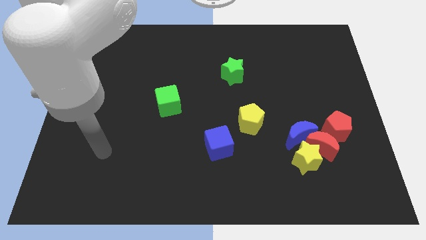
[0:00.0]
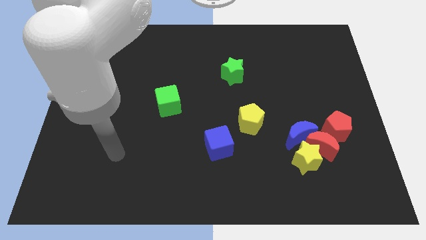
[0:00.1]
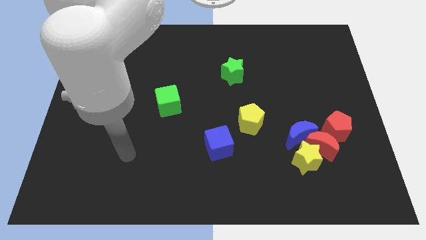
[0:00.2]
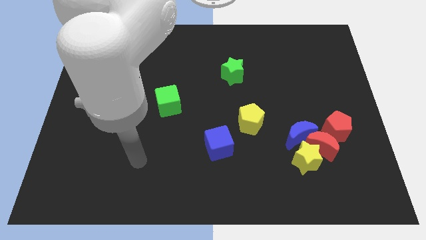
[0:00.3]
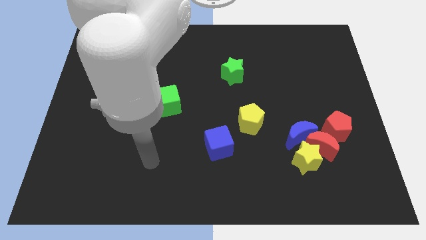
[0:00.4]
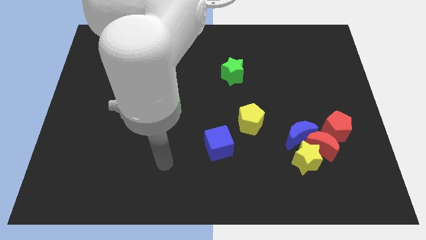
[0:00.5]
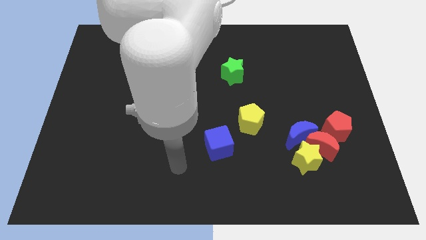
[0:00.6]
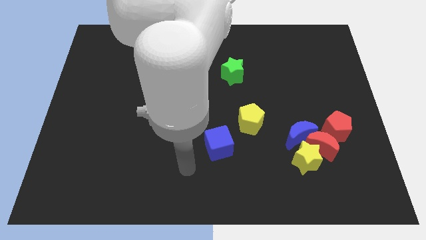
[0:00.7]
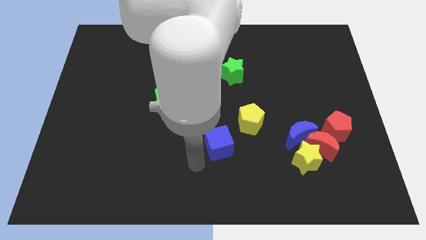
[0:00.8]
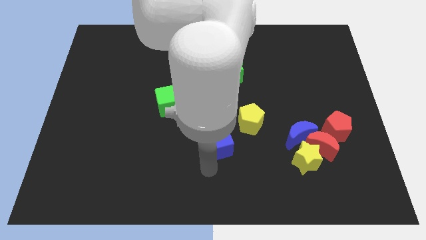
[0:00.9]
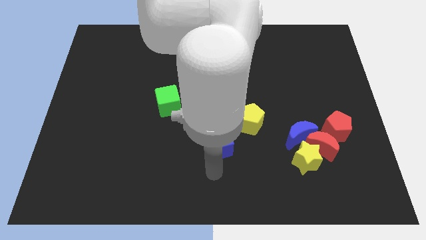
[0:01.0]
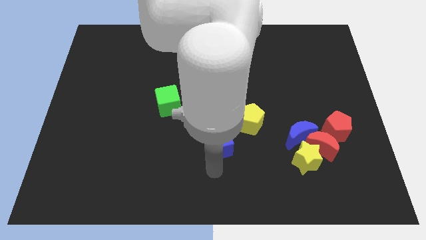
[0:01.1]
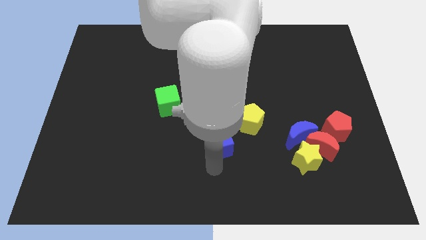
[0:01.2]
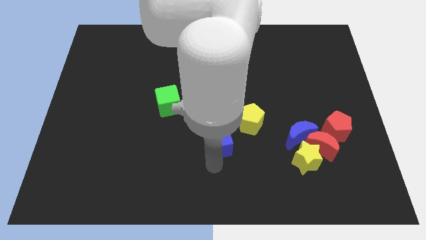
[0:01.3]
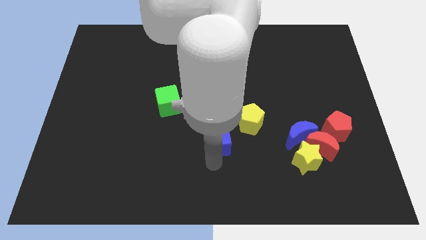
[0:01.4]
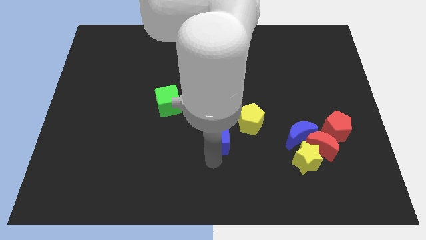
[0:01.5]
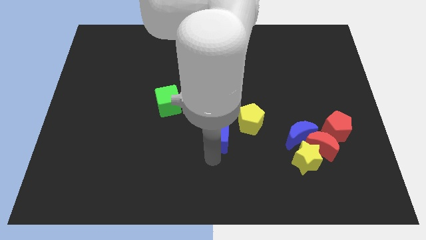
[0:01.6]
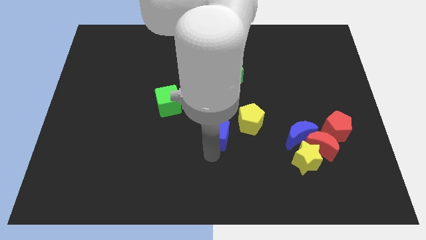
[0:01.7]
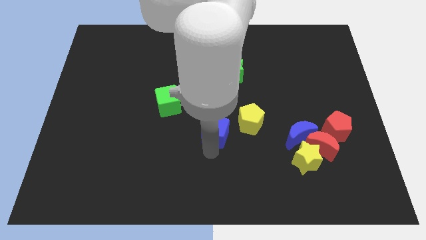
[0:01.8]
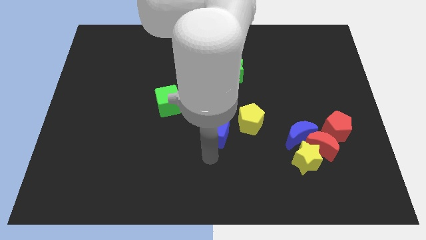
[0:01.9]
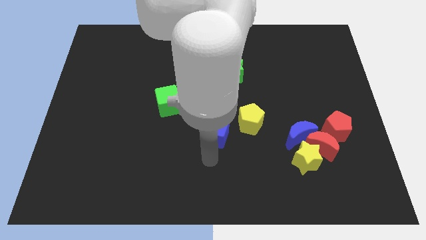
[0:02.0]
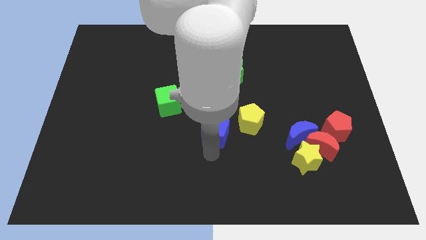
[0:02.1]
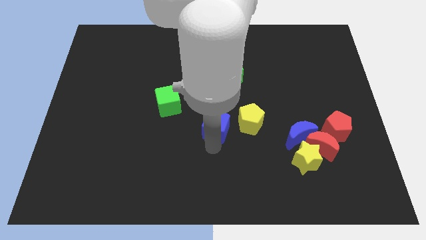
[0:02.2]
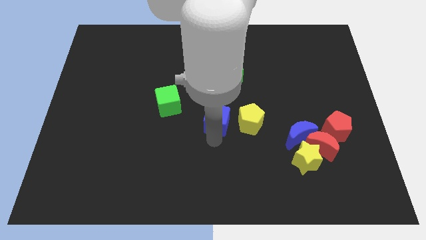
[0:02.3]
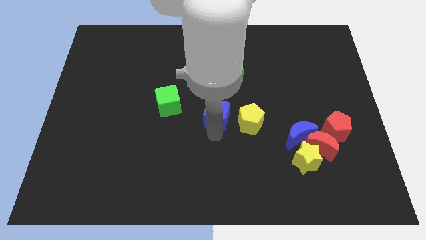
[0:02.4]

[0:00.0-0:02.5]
push the blue cube upwards slightly

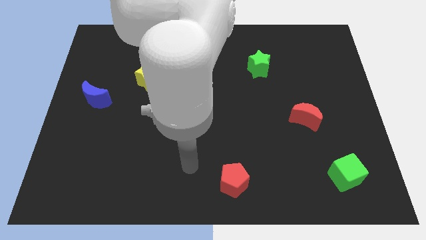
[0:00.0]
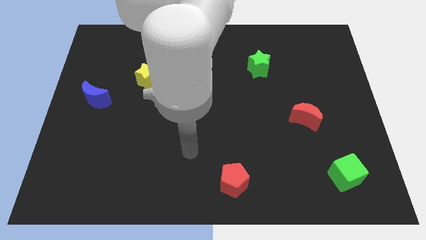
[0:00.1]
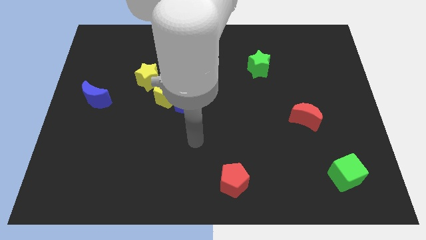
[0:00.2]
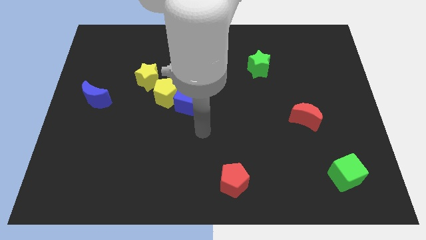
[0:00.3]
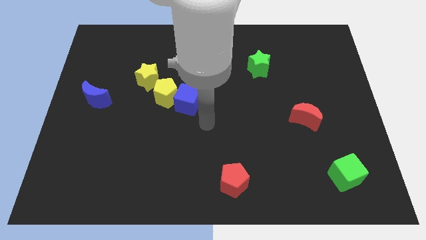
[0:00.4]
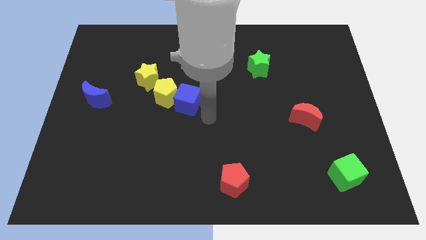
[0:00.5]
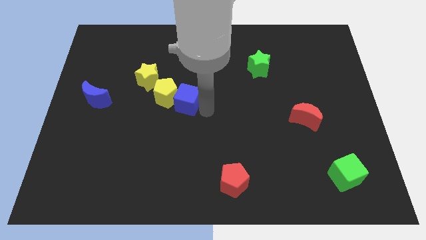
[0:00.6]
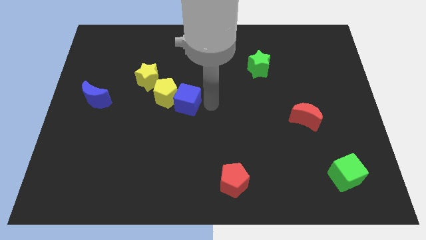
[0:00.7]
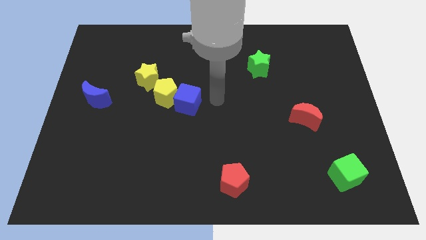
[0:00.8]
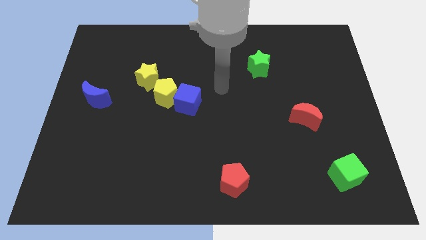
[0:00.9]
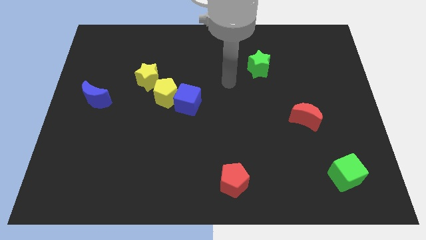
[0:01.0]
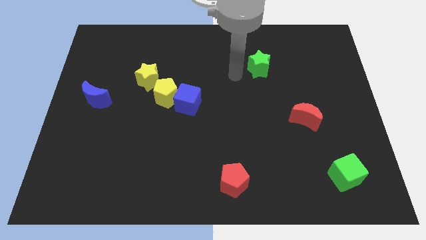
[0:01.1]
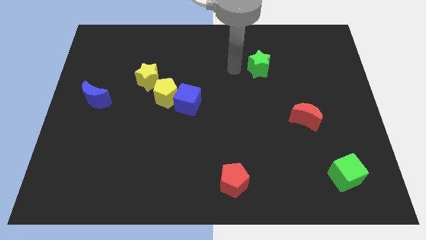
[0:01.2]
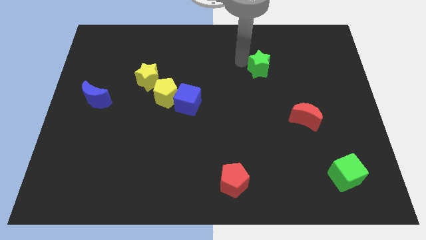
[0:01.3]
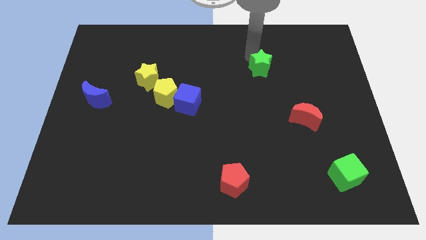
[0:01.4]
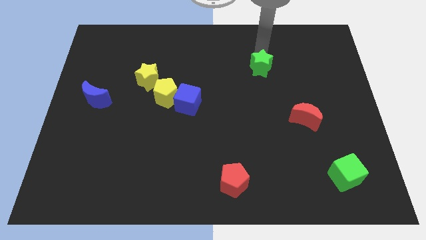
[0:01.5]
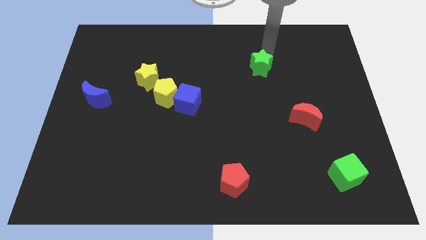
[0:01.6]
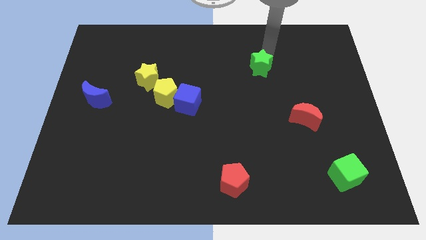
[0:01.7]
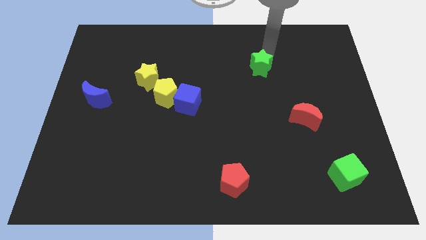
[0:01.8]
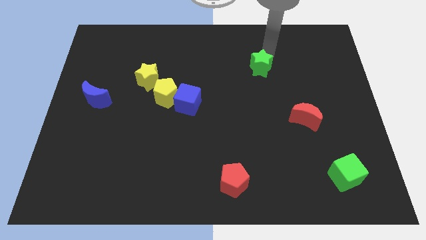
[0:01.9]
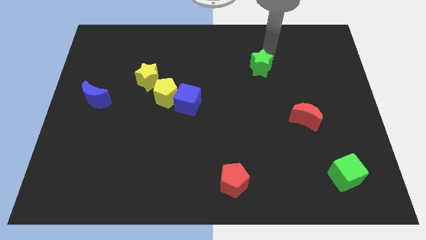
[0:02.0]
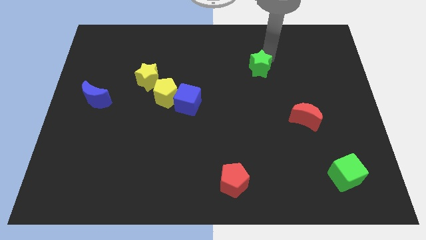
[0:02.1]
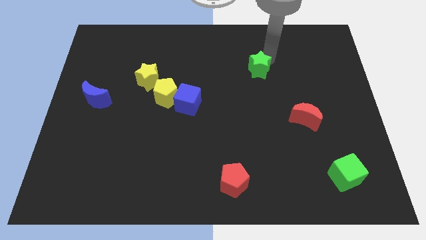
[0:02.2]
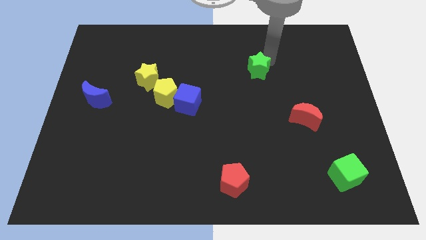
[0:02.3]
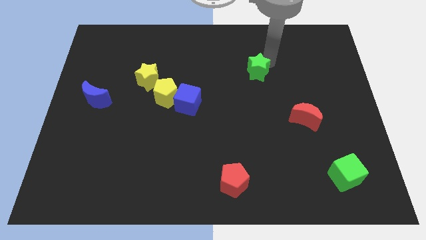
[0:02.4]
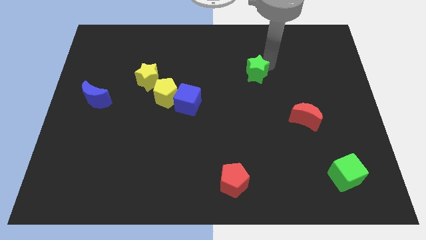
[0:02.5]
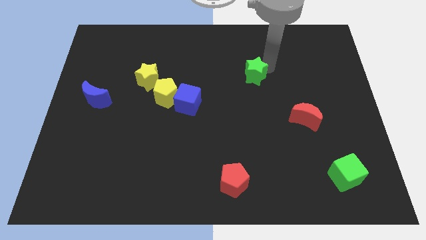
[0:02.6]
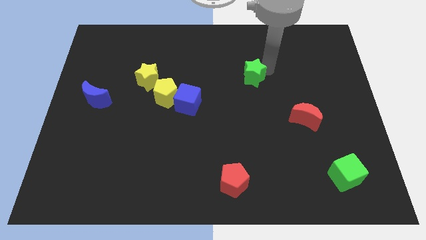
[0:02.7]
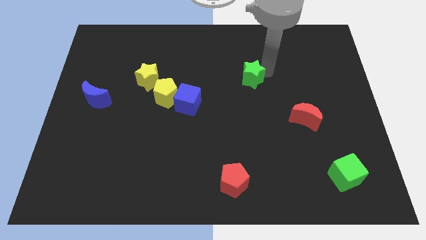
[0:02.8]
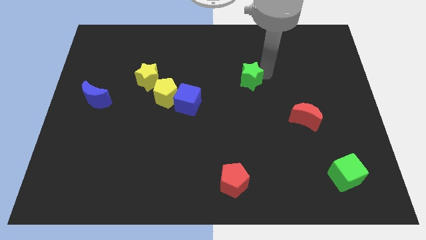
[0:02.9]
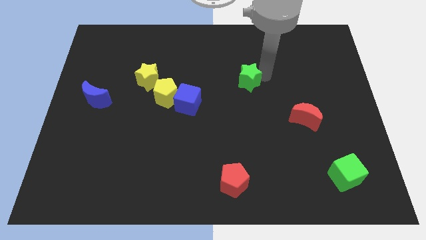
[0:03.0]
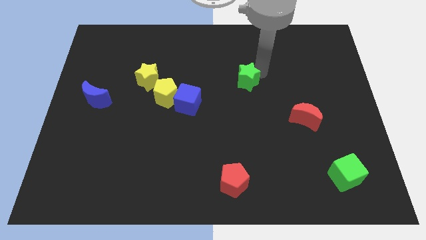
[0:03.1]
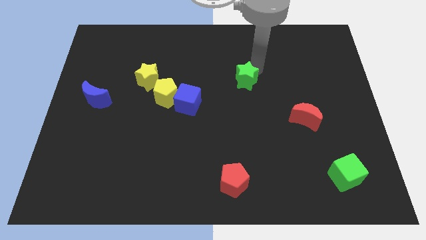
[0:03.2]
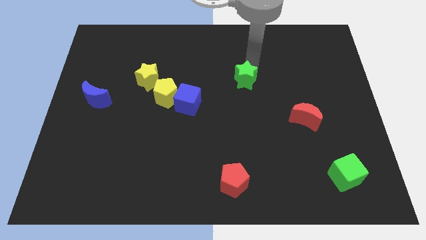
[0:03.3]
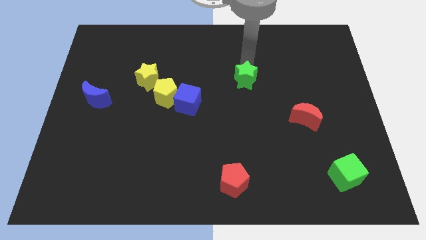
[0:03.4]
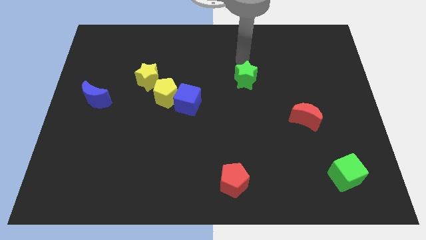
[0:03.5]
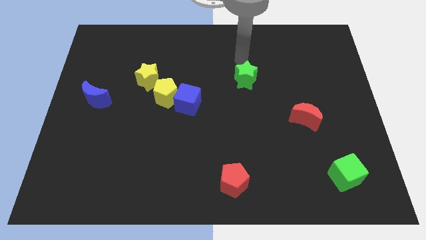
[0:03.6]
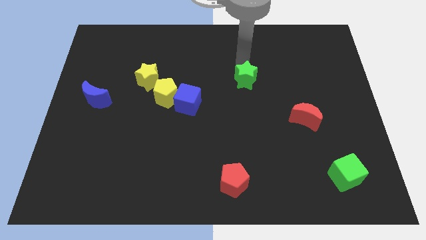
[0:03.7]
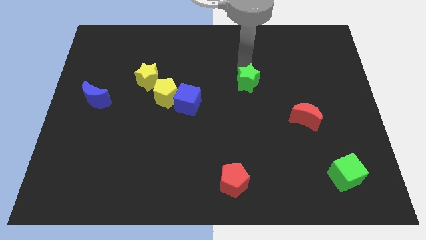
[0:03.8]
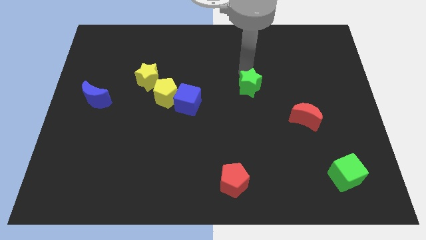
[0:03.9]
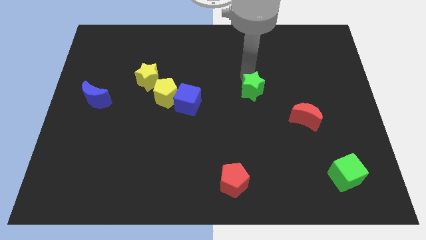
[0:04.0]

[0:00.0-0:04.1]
push the green star down a little bit

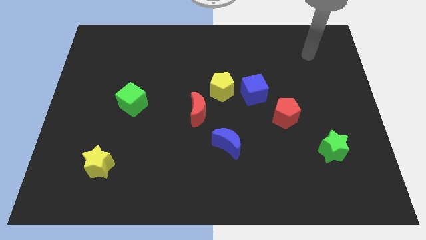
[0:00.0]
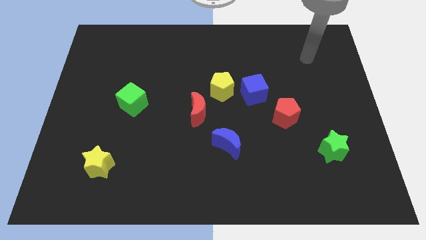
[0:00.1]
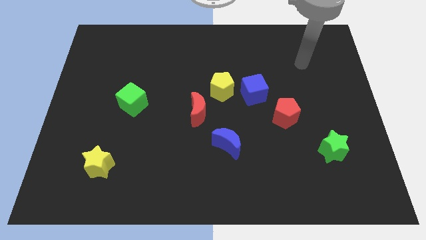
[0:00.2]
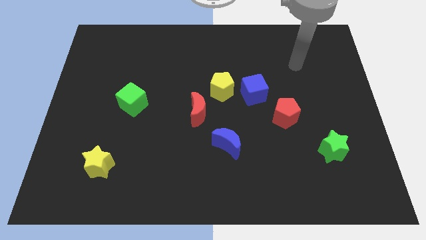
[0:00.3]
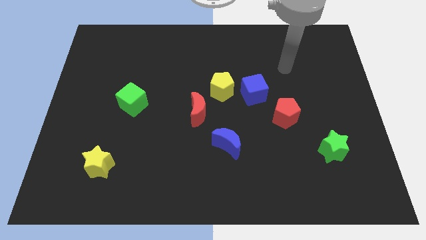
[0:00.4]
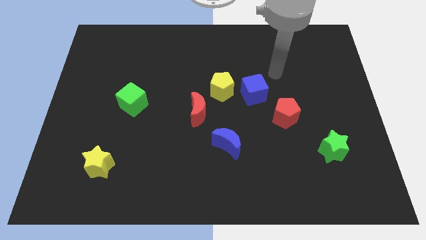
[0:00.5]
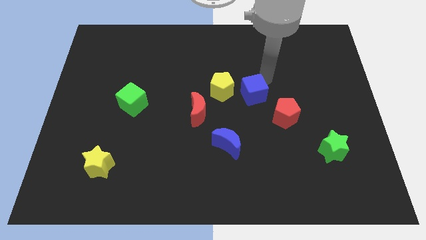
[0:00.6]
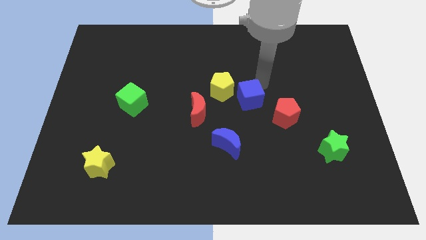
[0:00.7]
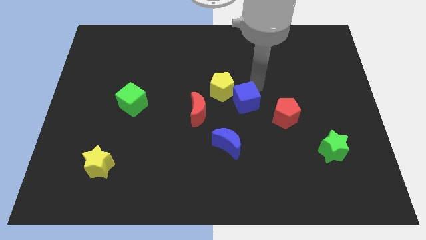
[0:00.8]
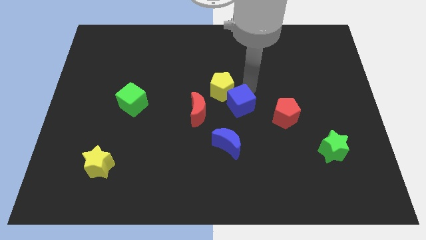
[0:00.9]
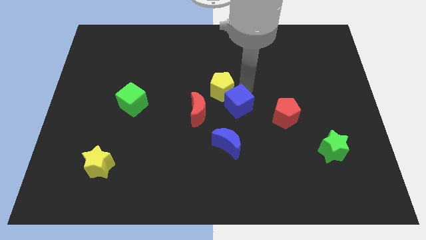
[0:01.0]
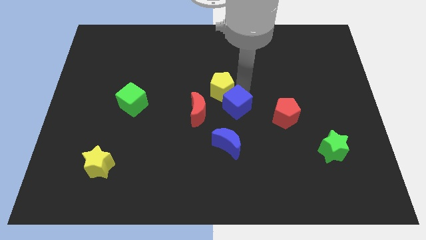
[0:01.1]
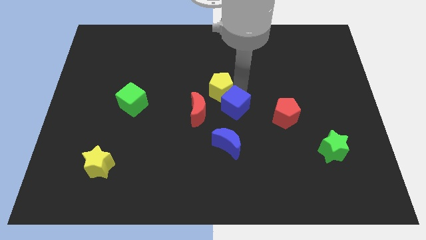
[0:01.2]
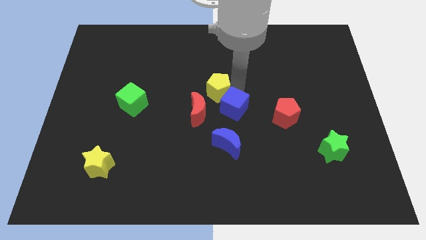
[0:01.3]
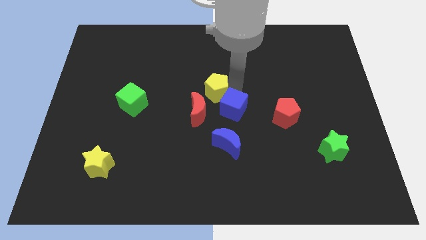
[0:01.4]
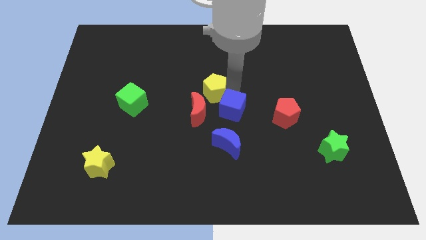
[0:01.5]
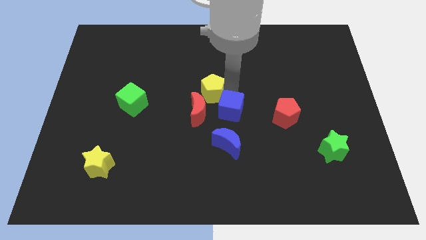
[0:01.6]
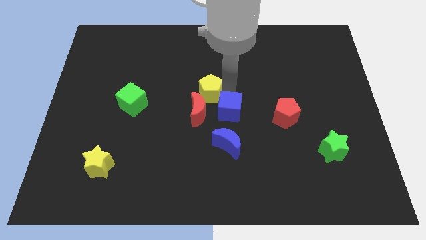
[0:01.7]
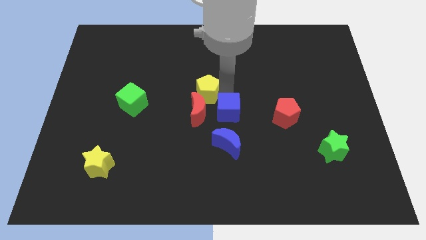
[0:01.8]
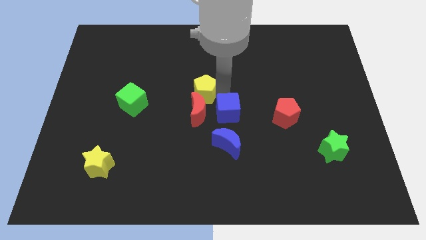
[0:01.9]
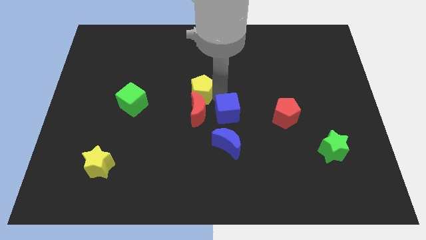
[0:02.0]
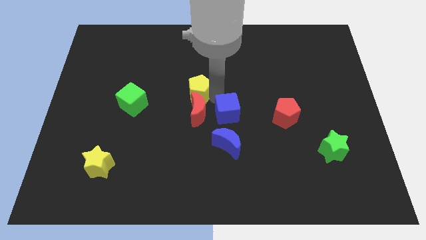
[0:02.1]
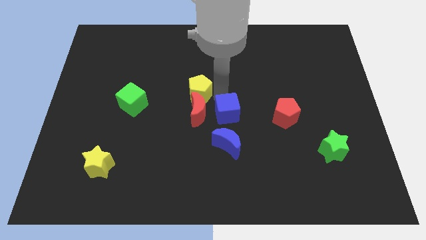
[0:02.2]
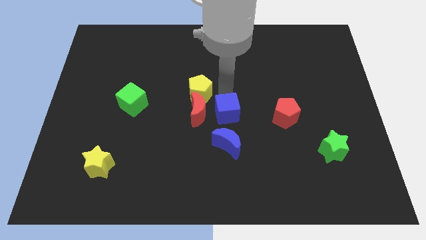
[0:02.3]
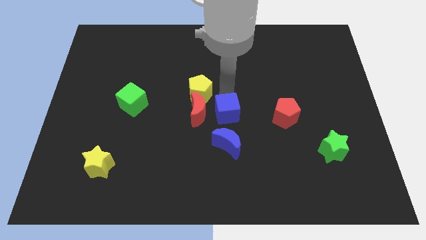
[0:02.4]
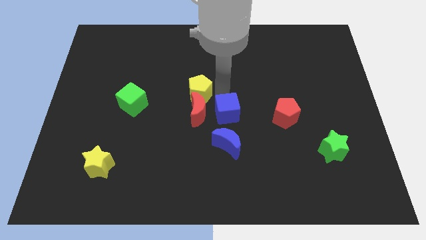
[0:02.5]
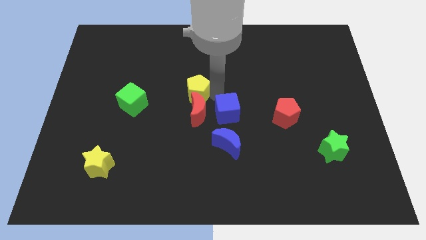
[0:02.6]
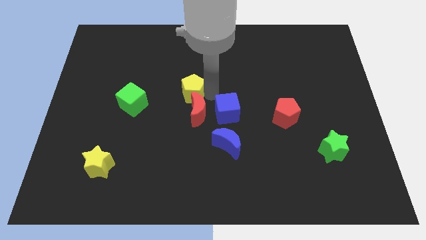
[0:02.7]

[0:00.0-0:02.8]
push the yellow pentagon to the left somewhat
